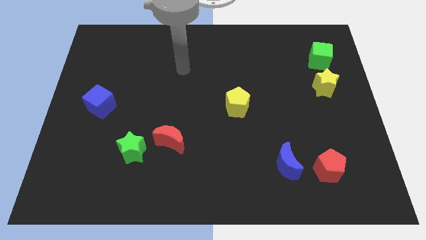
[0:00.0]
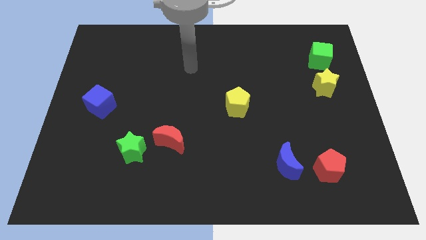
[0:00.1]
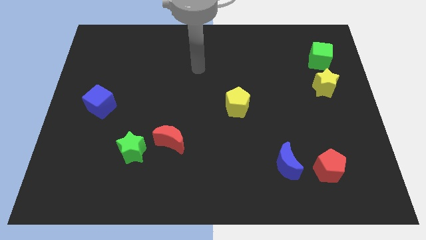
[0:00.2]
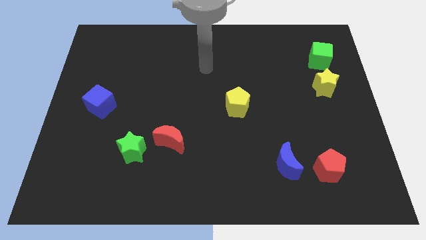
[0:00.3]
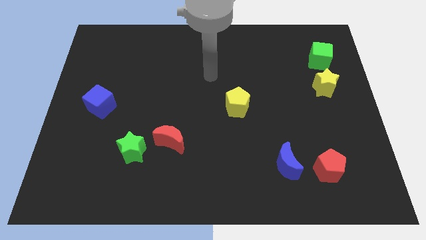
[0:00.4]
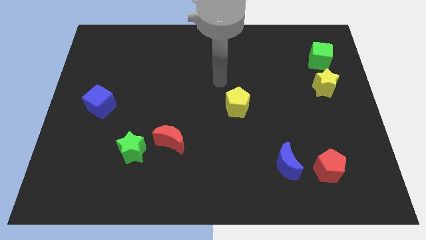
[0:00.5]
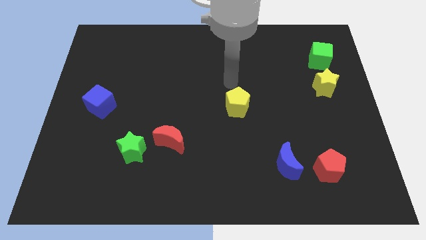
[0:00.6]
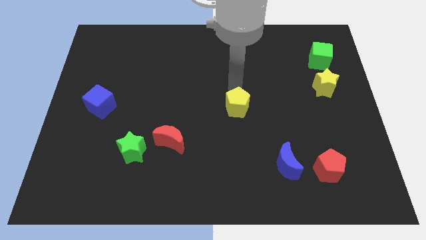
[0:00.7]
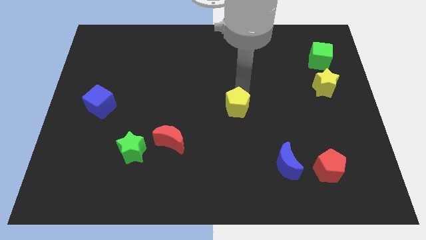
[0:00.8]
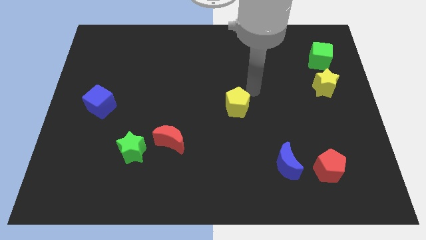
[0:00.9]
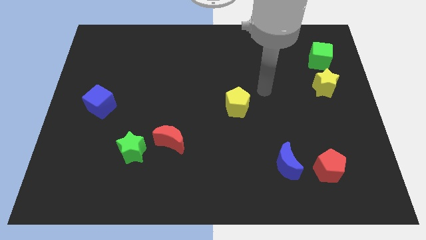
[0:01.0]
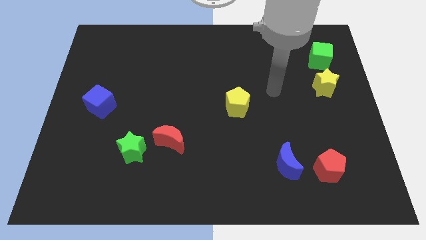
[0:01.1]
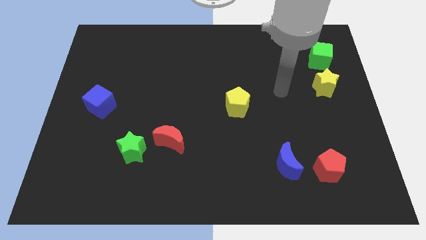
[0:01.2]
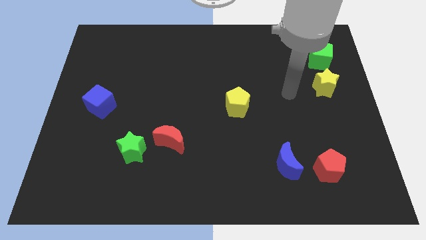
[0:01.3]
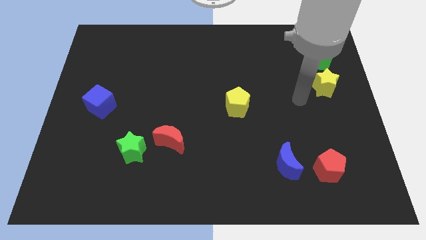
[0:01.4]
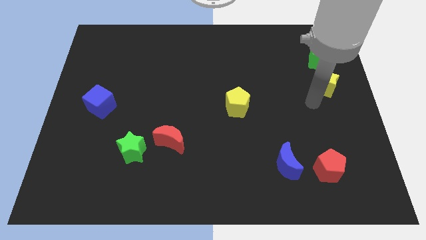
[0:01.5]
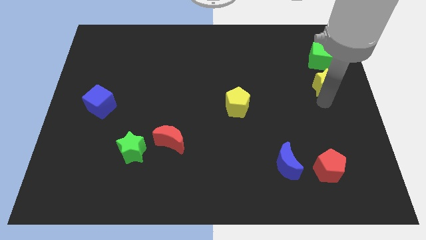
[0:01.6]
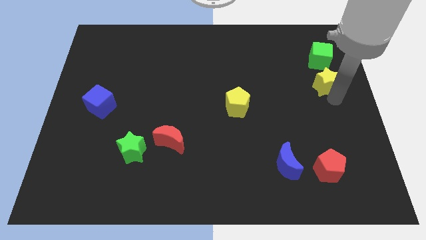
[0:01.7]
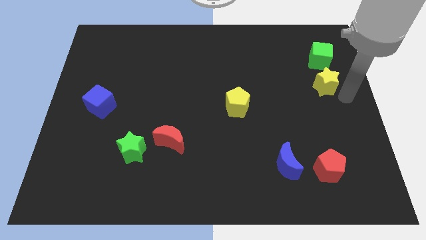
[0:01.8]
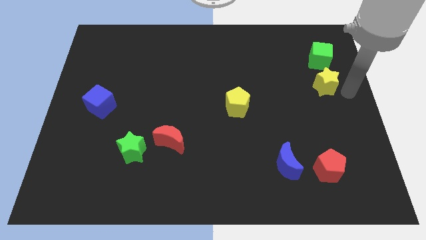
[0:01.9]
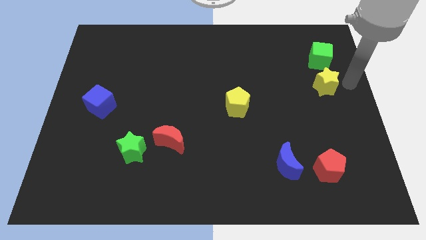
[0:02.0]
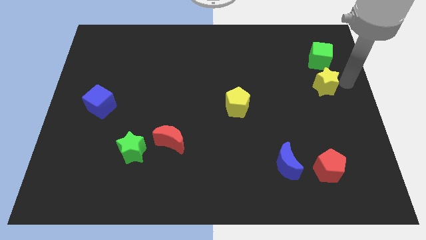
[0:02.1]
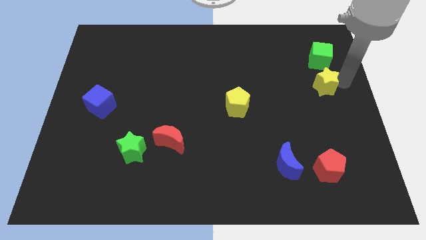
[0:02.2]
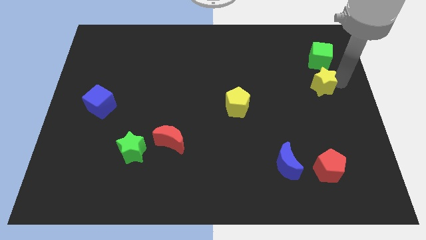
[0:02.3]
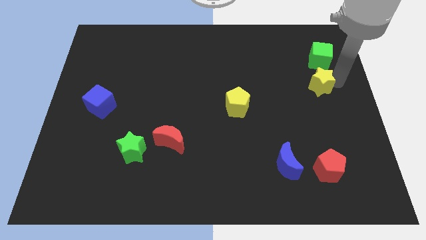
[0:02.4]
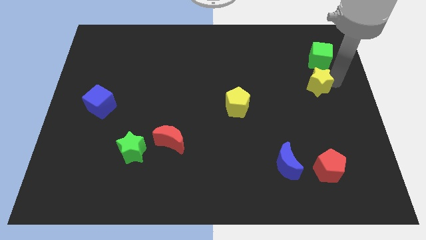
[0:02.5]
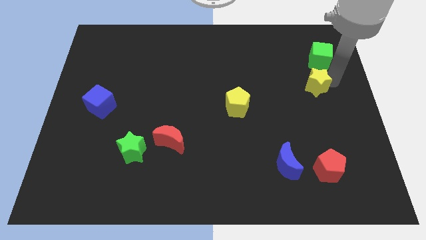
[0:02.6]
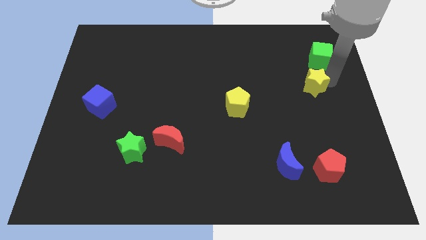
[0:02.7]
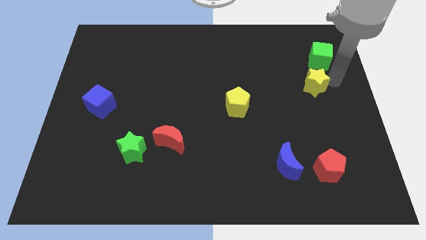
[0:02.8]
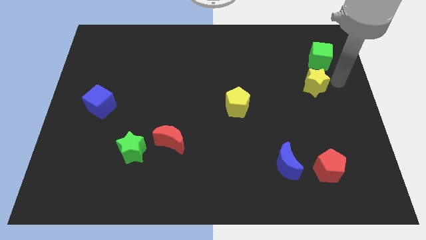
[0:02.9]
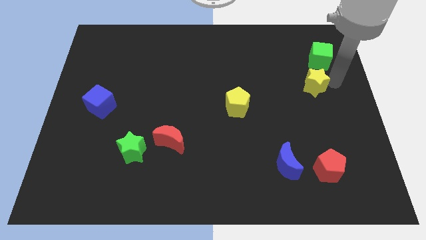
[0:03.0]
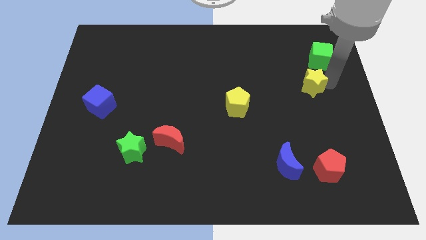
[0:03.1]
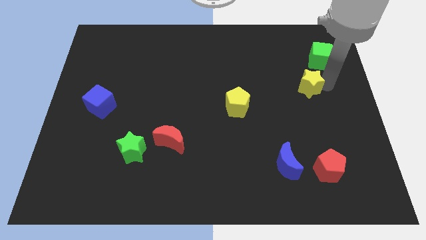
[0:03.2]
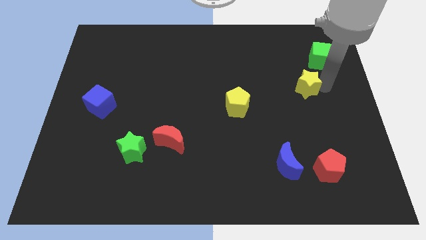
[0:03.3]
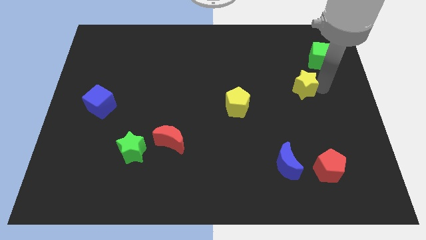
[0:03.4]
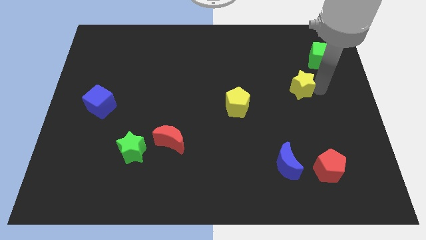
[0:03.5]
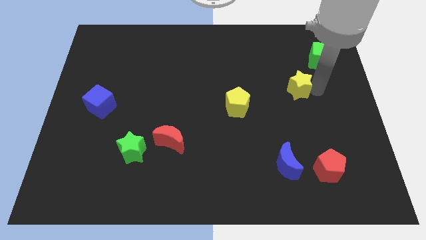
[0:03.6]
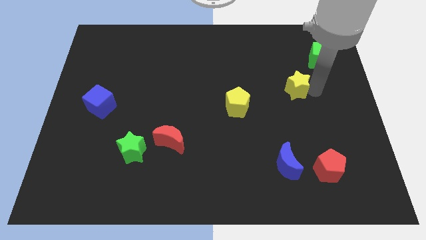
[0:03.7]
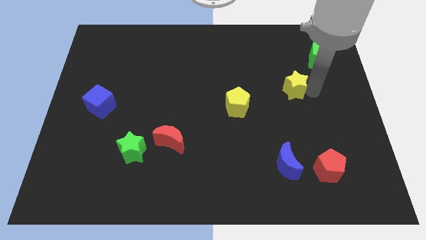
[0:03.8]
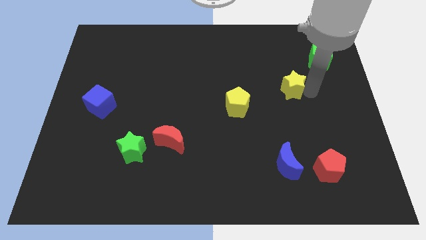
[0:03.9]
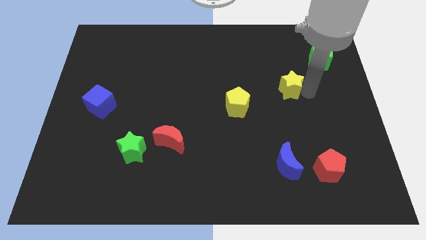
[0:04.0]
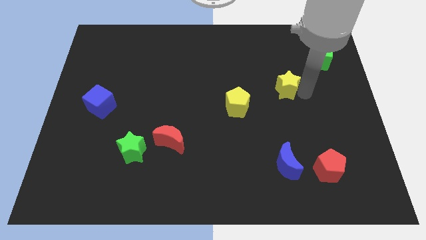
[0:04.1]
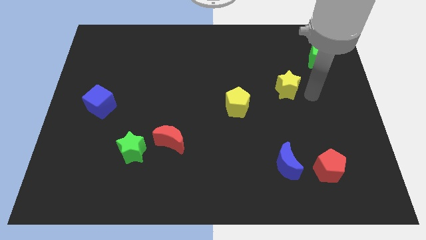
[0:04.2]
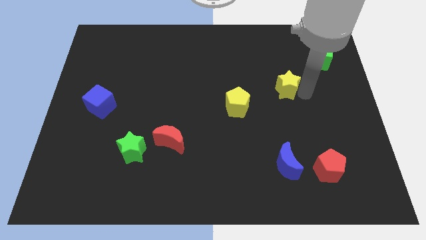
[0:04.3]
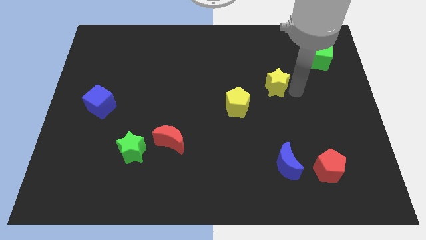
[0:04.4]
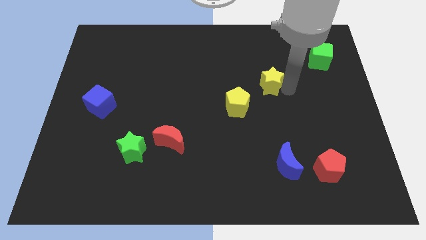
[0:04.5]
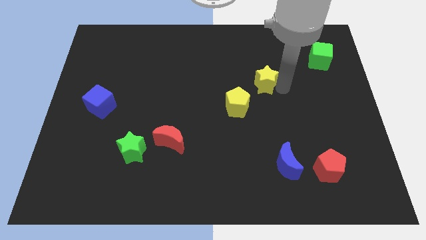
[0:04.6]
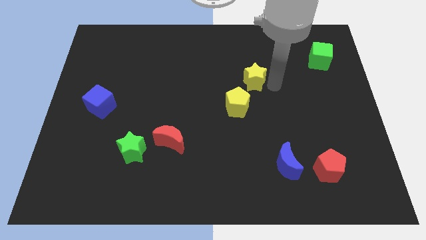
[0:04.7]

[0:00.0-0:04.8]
move the yellow star to the middle
